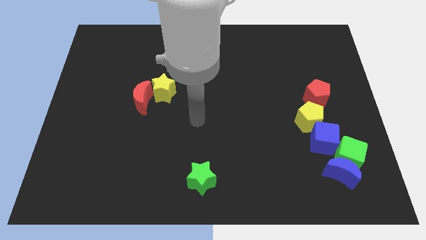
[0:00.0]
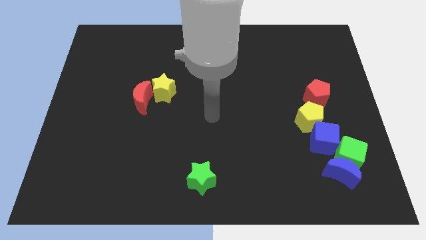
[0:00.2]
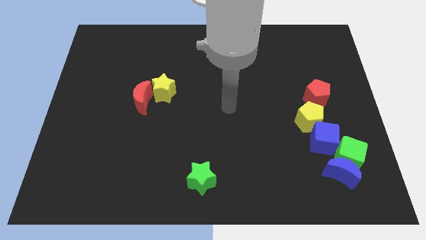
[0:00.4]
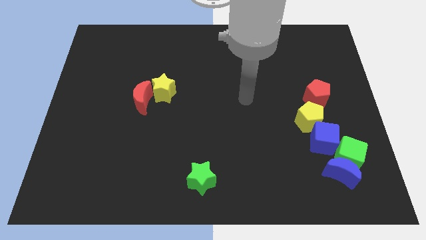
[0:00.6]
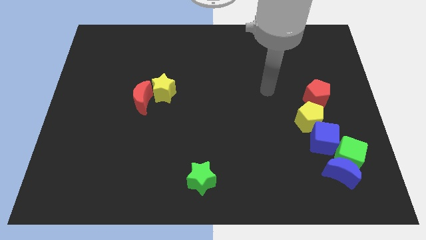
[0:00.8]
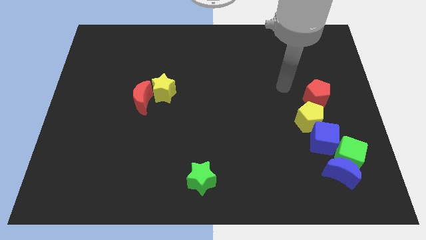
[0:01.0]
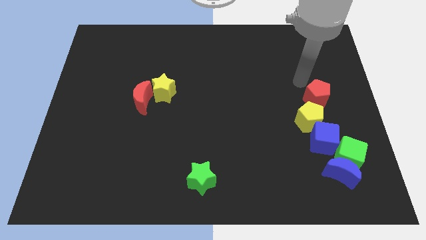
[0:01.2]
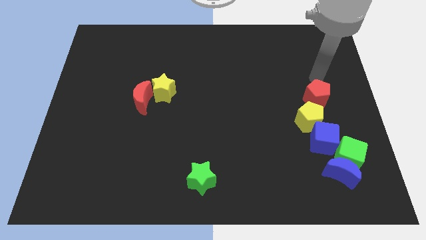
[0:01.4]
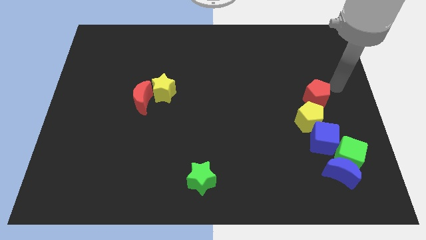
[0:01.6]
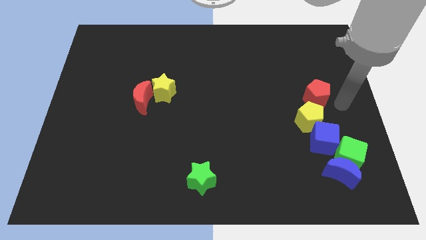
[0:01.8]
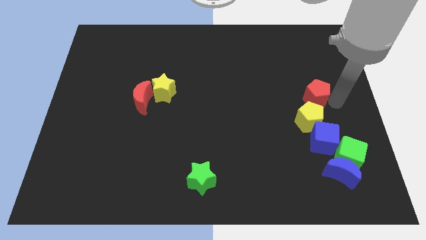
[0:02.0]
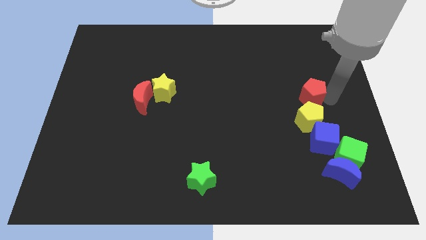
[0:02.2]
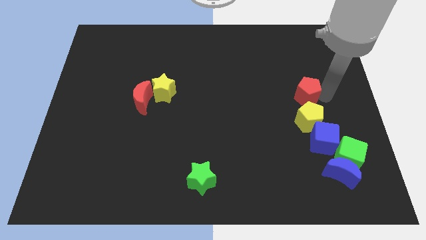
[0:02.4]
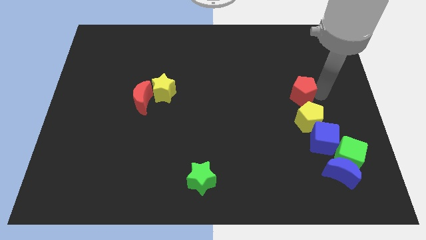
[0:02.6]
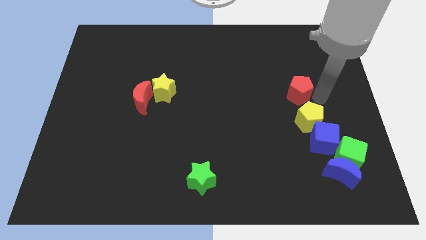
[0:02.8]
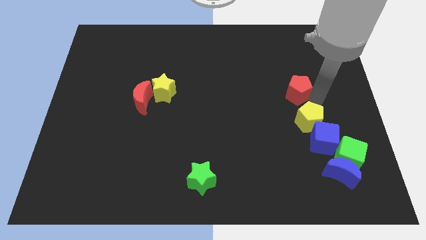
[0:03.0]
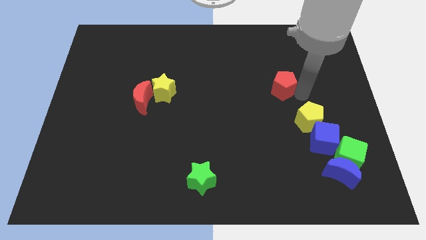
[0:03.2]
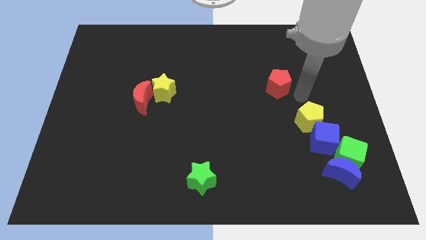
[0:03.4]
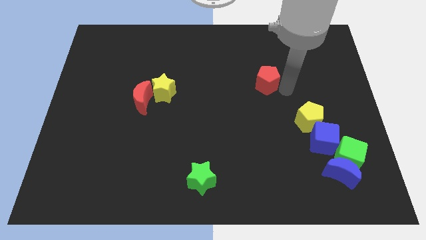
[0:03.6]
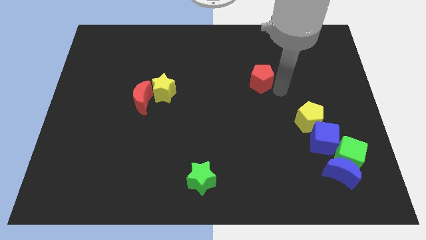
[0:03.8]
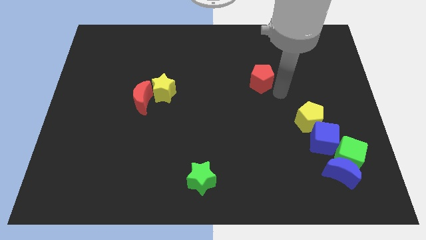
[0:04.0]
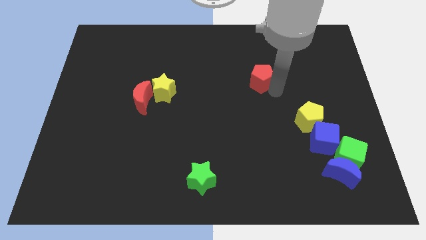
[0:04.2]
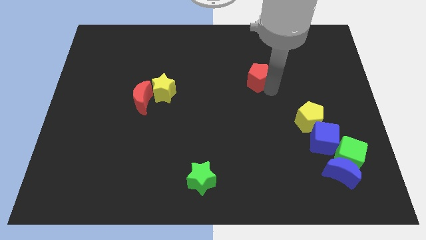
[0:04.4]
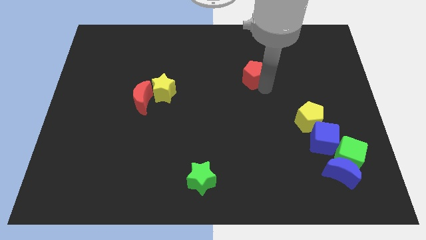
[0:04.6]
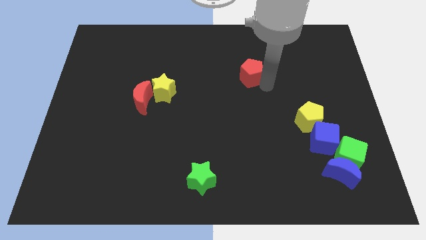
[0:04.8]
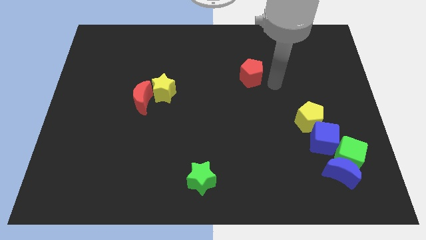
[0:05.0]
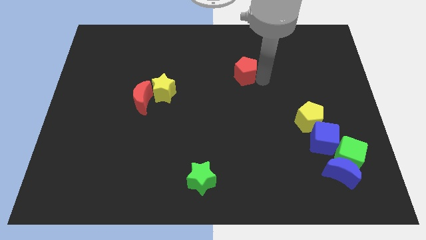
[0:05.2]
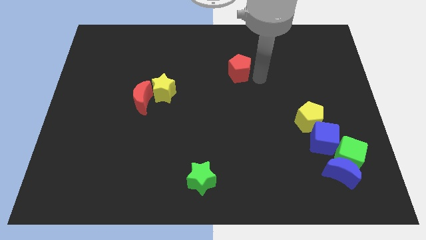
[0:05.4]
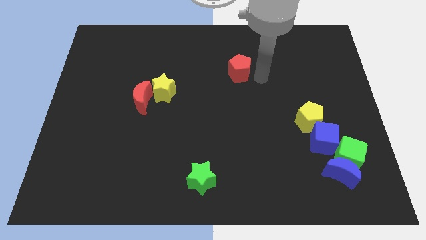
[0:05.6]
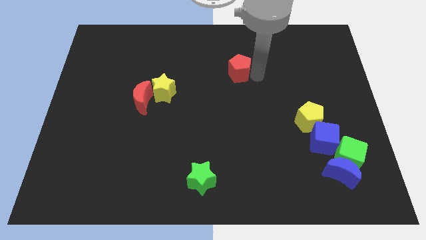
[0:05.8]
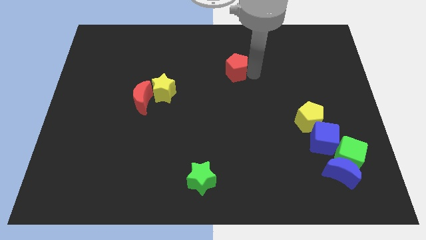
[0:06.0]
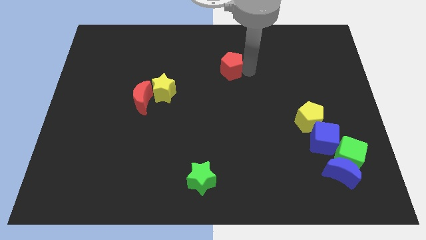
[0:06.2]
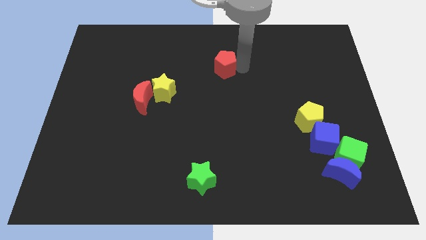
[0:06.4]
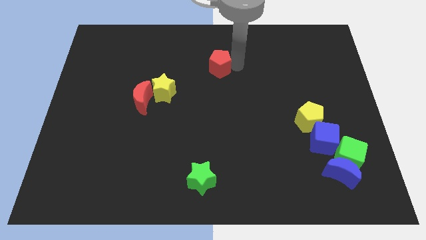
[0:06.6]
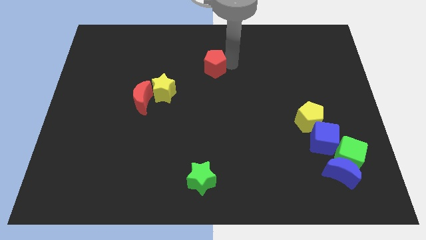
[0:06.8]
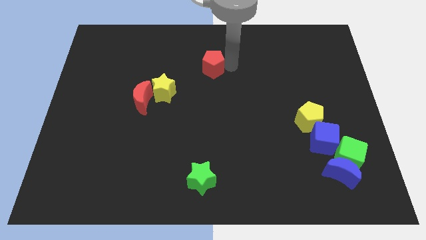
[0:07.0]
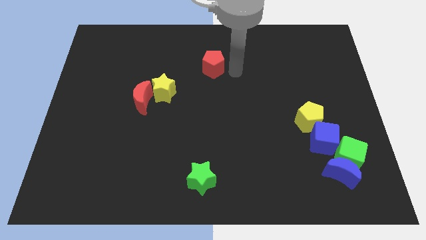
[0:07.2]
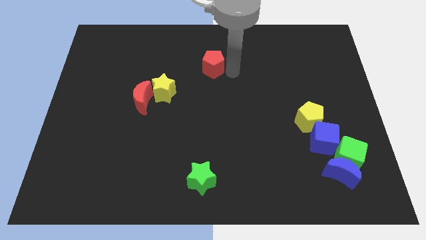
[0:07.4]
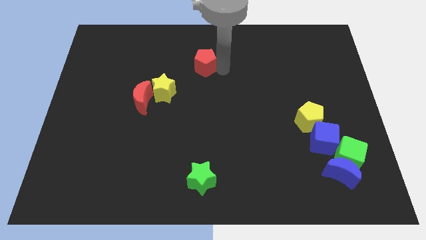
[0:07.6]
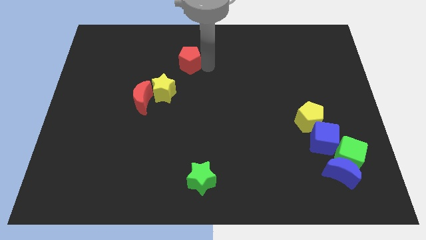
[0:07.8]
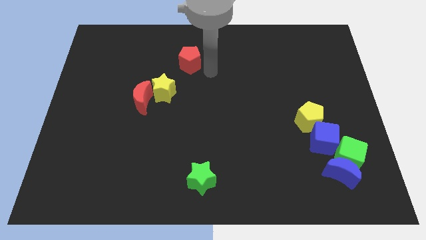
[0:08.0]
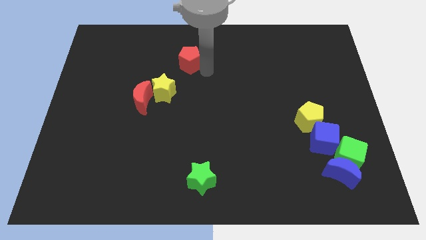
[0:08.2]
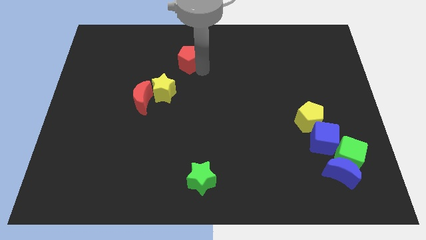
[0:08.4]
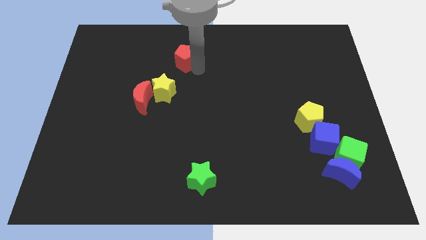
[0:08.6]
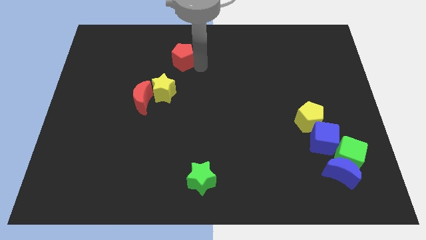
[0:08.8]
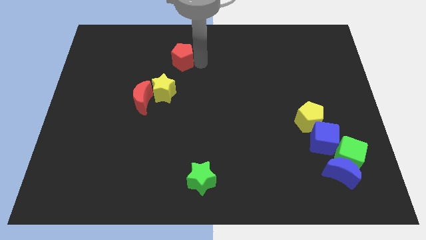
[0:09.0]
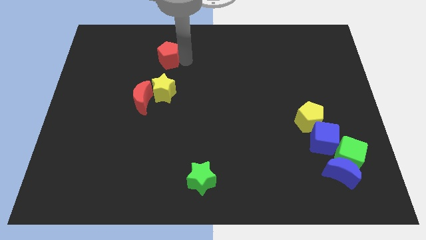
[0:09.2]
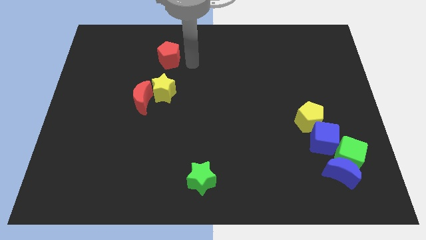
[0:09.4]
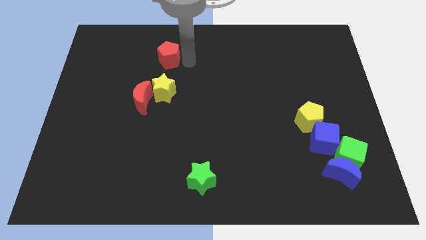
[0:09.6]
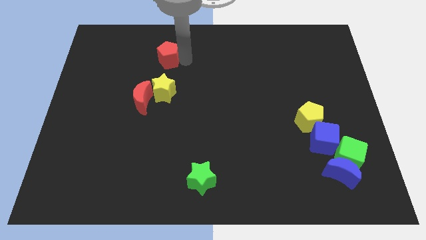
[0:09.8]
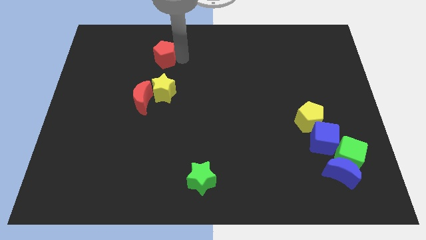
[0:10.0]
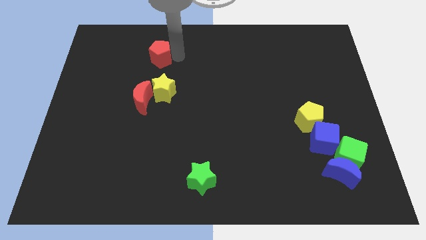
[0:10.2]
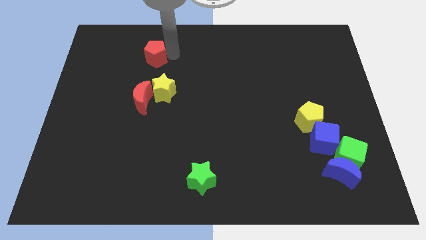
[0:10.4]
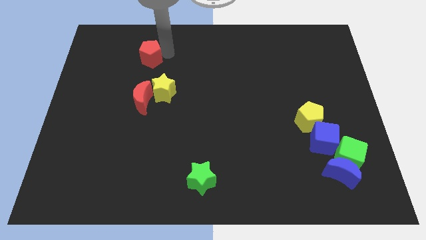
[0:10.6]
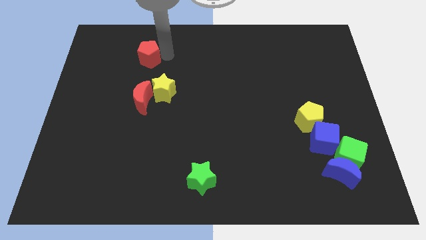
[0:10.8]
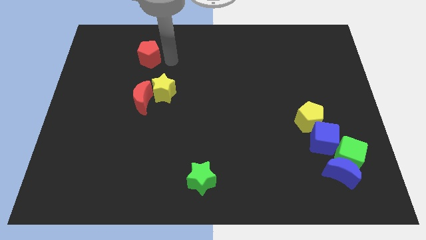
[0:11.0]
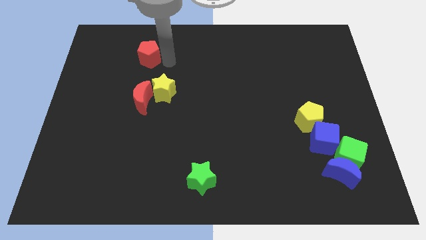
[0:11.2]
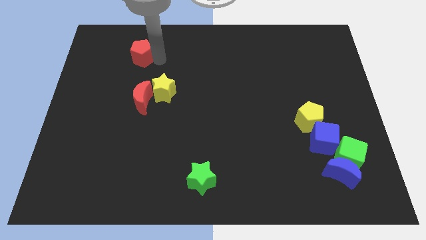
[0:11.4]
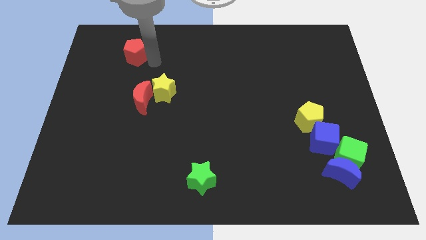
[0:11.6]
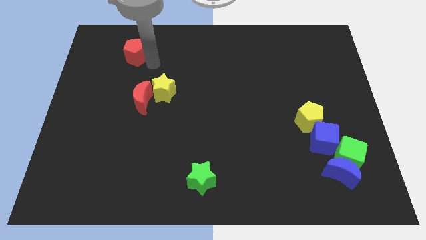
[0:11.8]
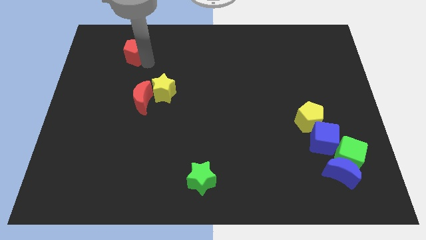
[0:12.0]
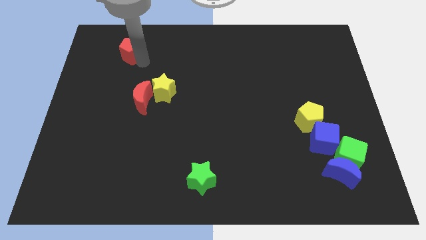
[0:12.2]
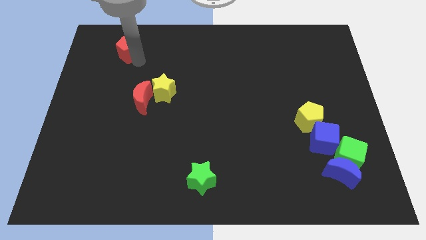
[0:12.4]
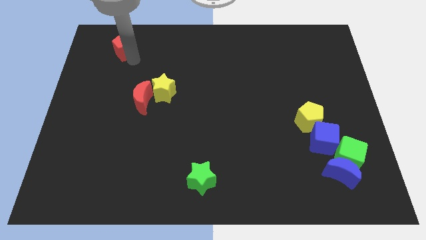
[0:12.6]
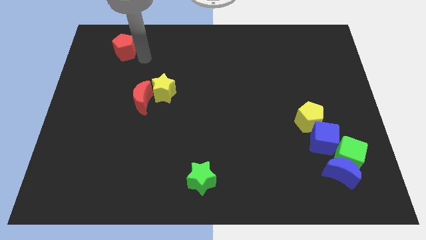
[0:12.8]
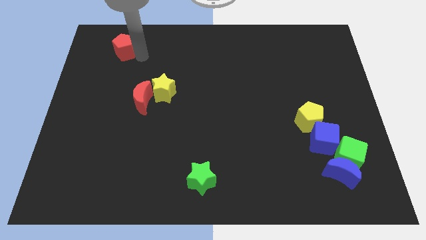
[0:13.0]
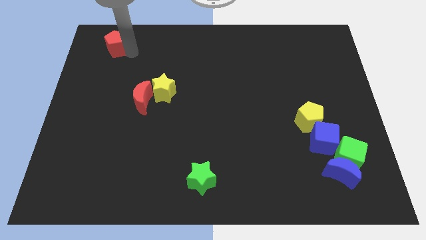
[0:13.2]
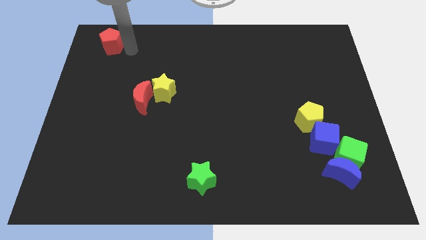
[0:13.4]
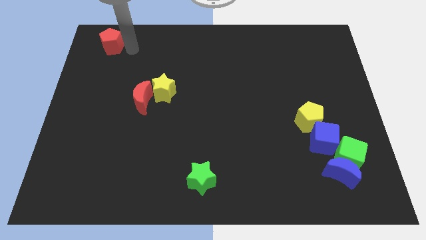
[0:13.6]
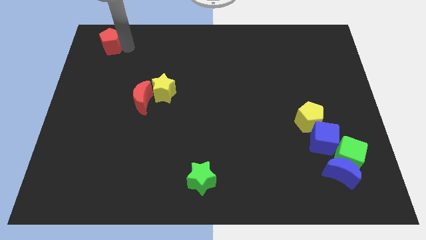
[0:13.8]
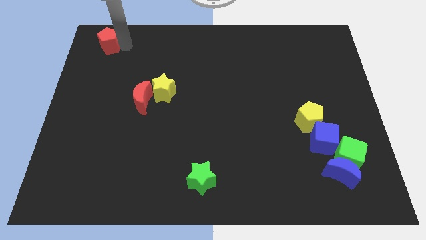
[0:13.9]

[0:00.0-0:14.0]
move the red pentagon to the upper left corner
